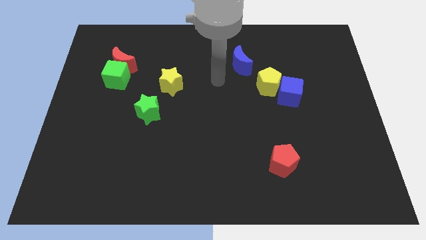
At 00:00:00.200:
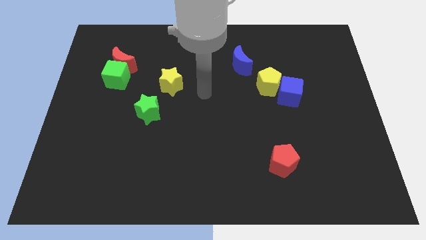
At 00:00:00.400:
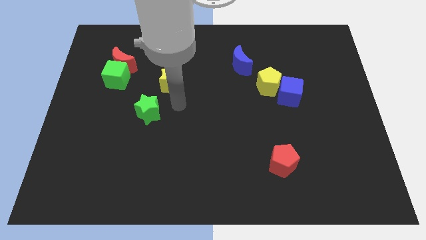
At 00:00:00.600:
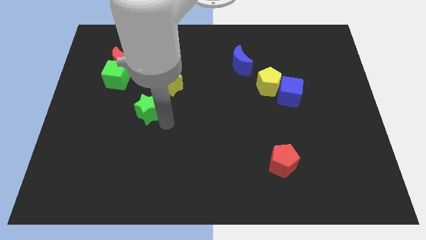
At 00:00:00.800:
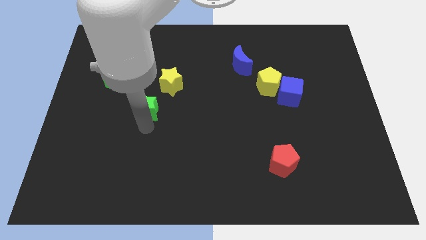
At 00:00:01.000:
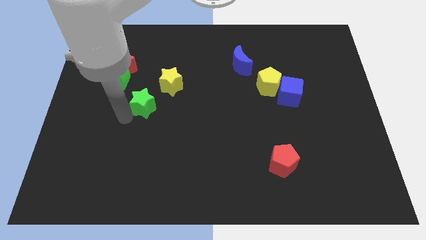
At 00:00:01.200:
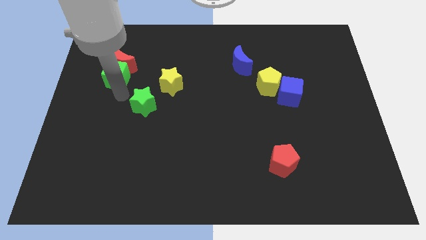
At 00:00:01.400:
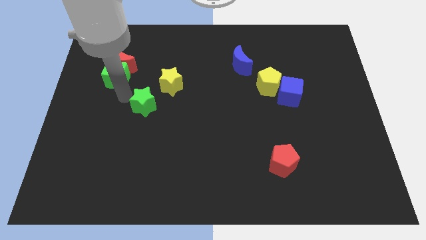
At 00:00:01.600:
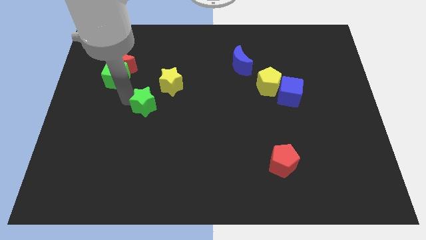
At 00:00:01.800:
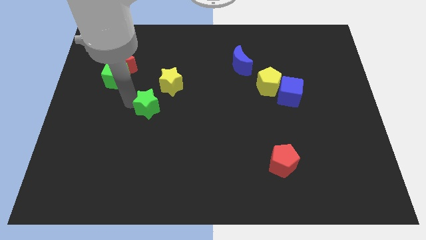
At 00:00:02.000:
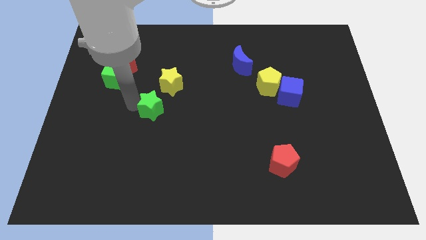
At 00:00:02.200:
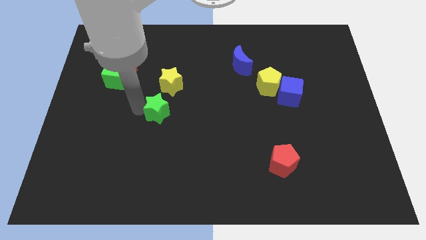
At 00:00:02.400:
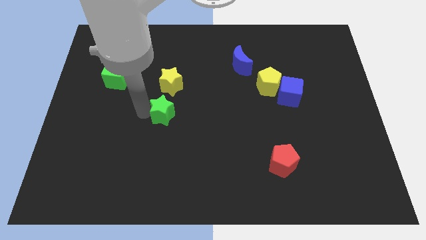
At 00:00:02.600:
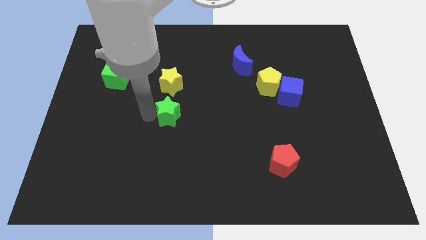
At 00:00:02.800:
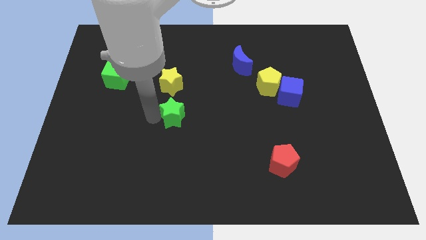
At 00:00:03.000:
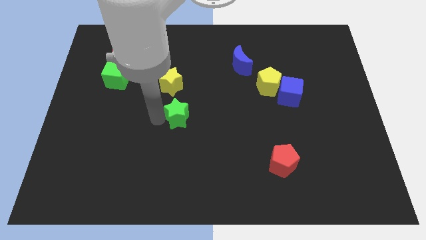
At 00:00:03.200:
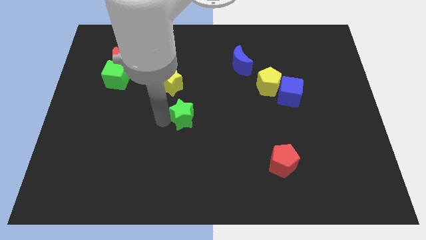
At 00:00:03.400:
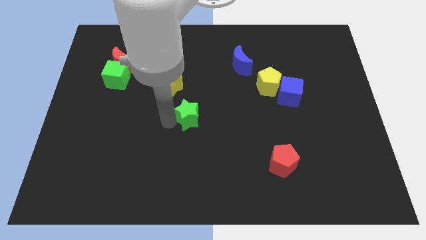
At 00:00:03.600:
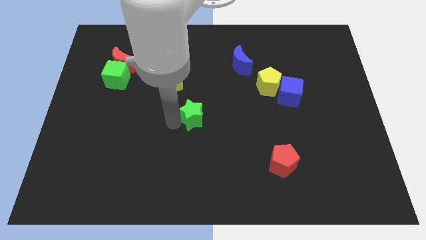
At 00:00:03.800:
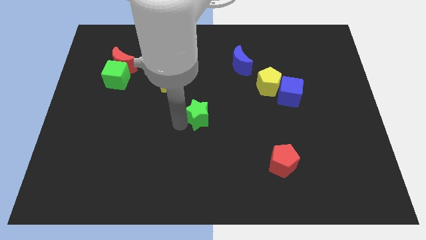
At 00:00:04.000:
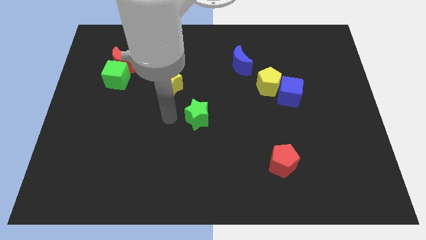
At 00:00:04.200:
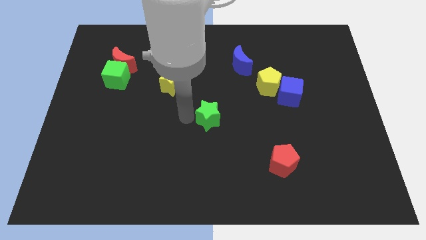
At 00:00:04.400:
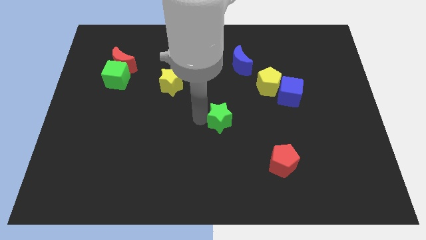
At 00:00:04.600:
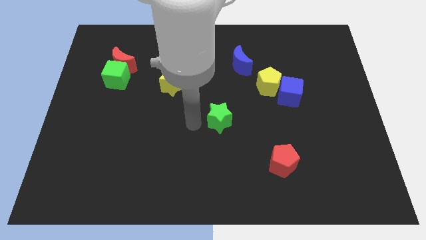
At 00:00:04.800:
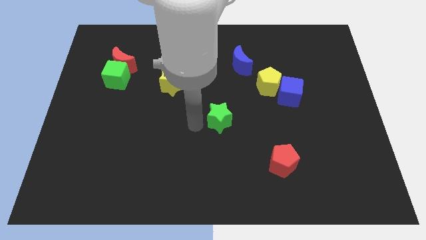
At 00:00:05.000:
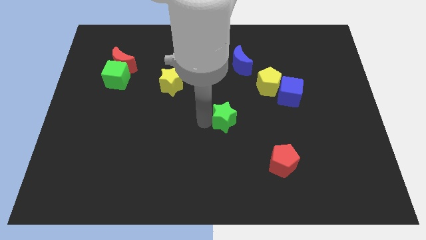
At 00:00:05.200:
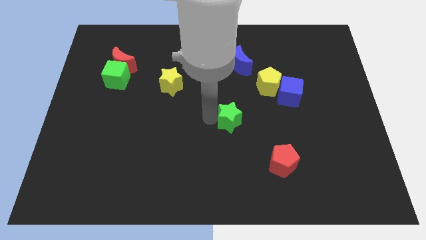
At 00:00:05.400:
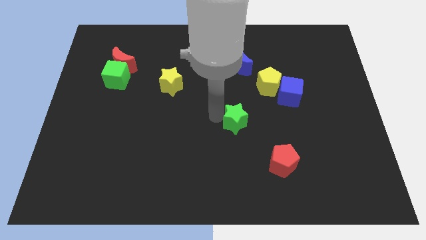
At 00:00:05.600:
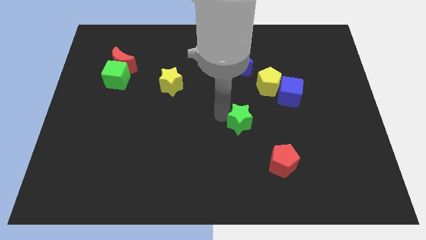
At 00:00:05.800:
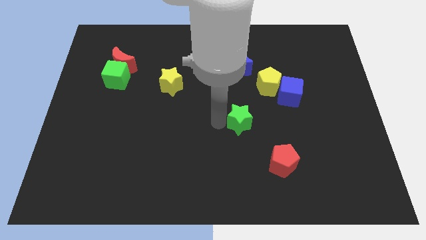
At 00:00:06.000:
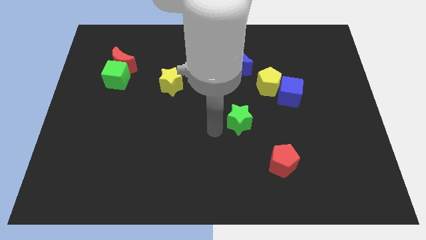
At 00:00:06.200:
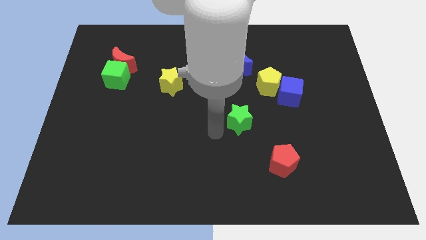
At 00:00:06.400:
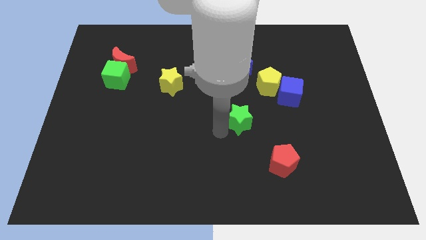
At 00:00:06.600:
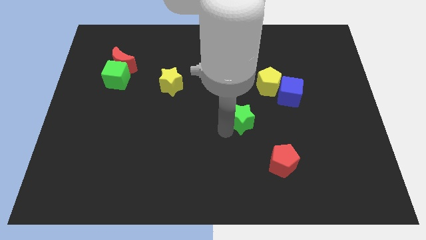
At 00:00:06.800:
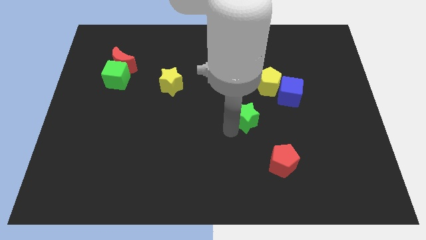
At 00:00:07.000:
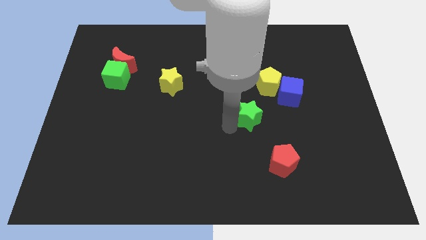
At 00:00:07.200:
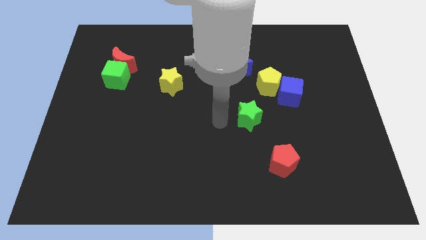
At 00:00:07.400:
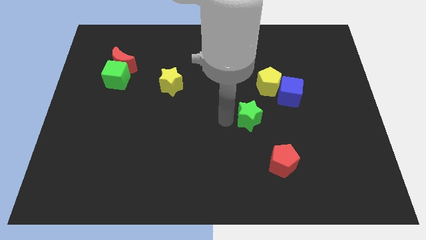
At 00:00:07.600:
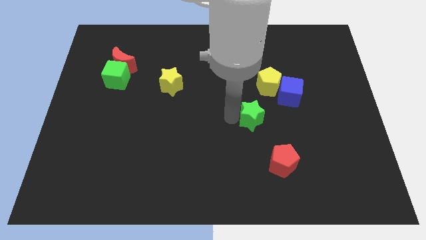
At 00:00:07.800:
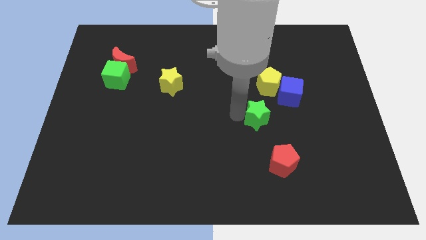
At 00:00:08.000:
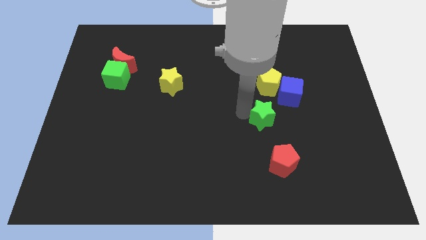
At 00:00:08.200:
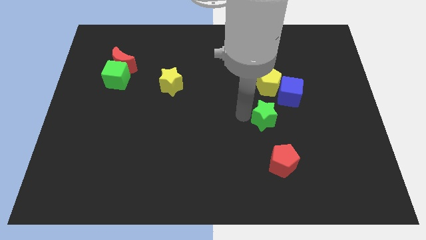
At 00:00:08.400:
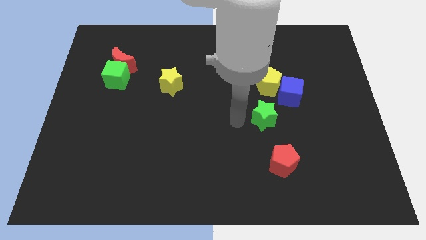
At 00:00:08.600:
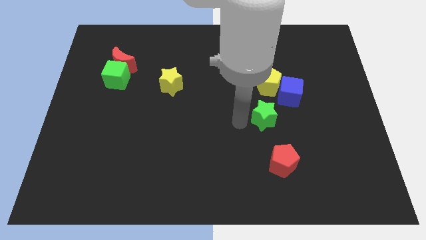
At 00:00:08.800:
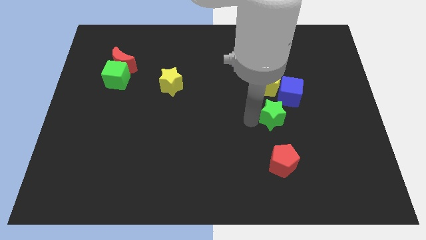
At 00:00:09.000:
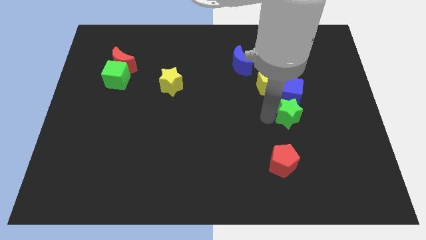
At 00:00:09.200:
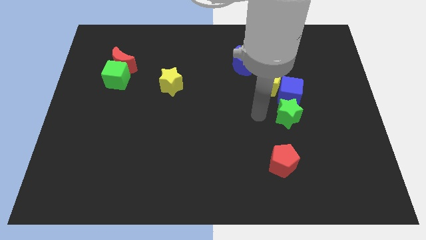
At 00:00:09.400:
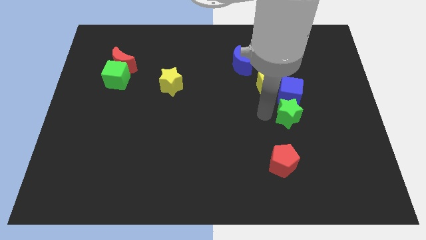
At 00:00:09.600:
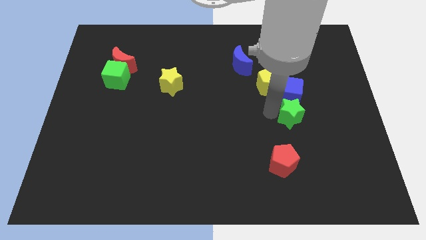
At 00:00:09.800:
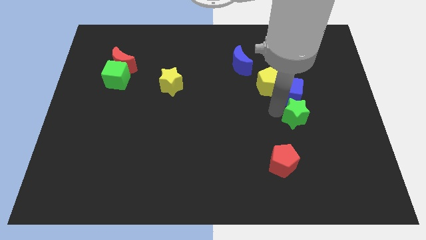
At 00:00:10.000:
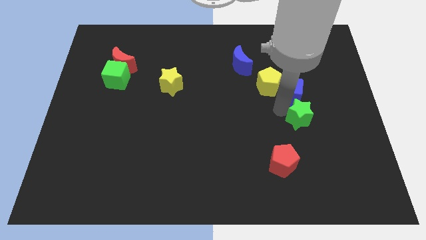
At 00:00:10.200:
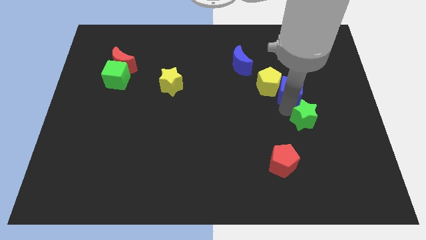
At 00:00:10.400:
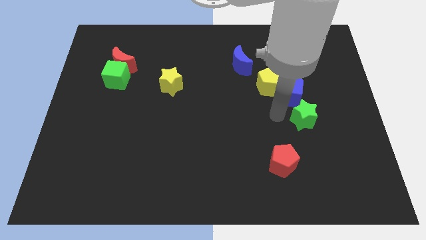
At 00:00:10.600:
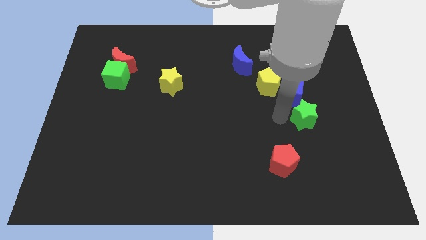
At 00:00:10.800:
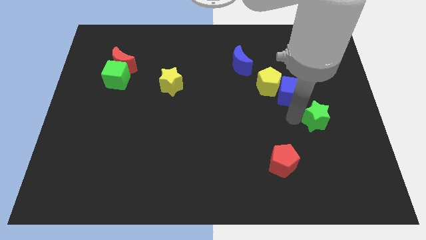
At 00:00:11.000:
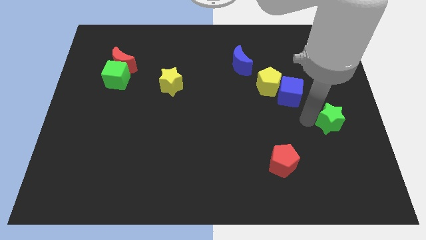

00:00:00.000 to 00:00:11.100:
put the green star to the center right
